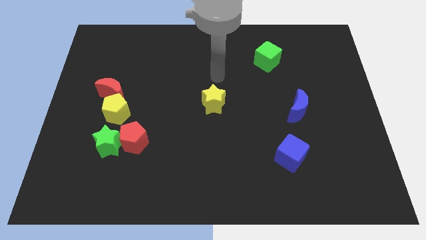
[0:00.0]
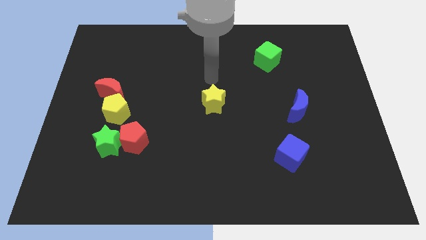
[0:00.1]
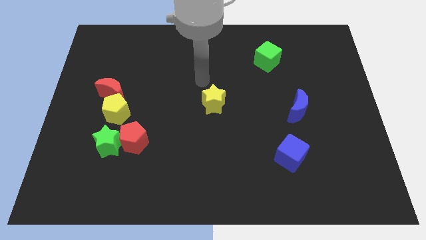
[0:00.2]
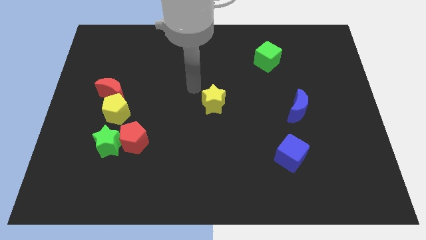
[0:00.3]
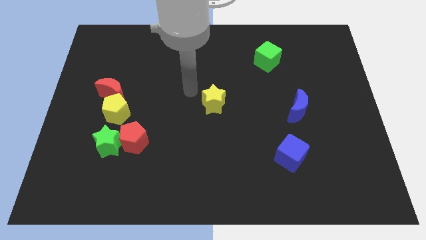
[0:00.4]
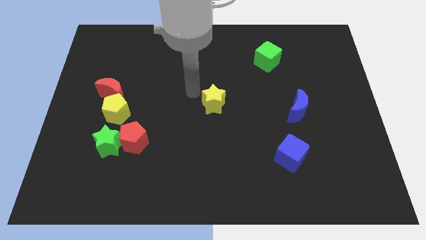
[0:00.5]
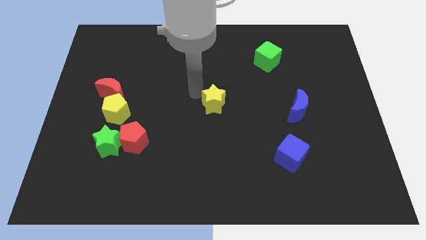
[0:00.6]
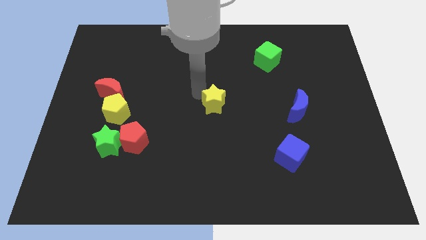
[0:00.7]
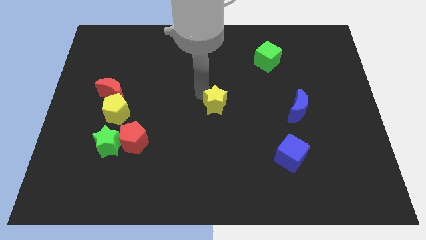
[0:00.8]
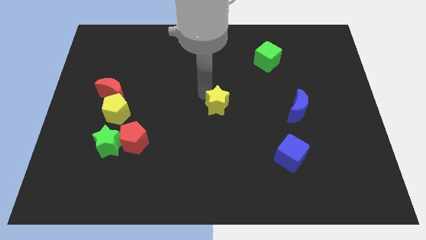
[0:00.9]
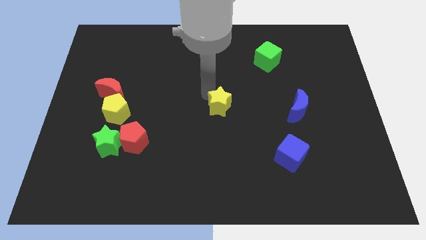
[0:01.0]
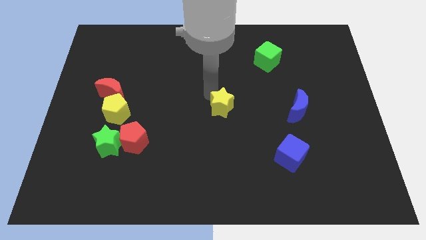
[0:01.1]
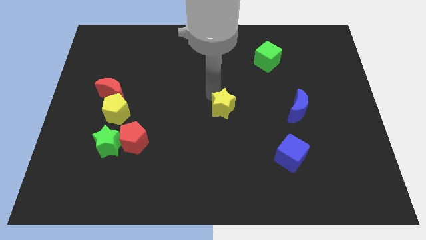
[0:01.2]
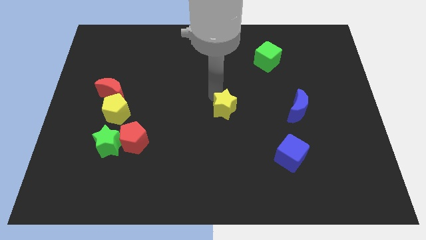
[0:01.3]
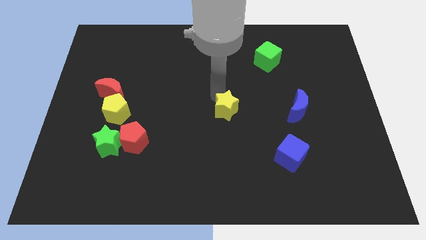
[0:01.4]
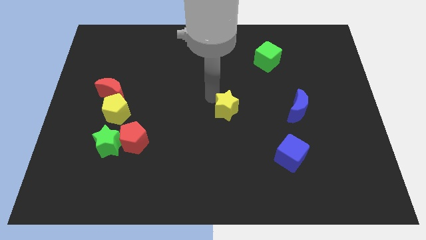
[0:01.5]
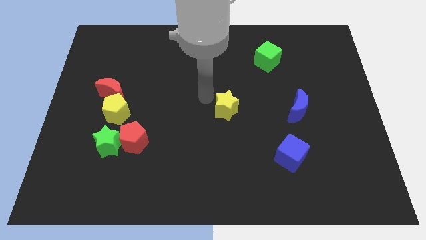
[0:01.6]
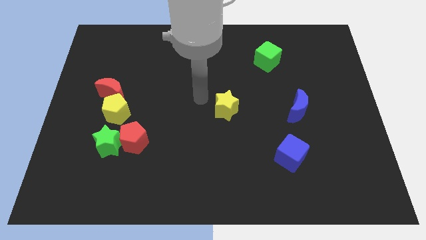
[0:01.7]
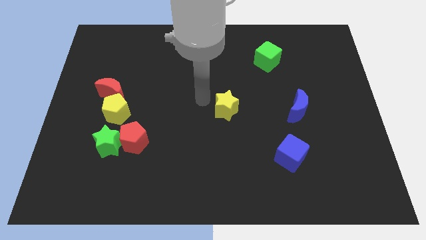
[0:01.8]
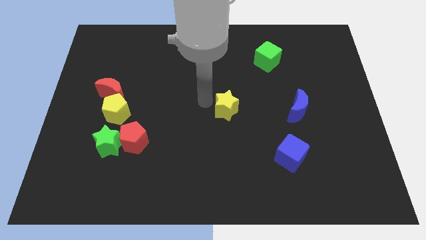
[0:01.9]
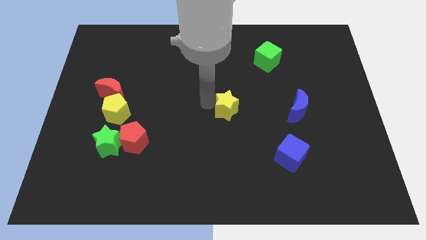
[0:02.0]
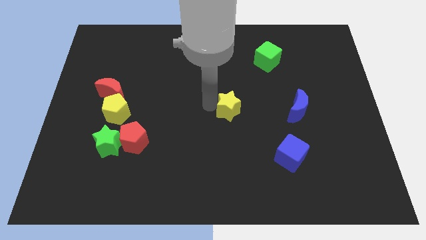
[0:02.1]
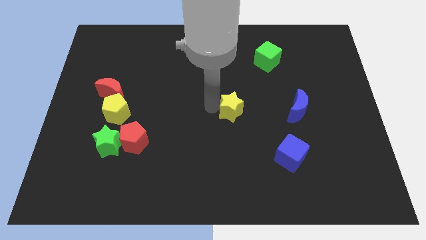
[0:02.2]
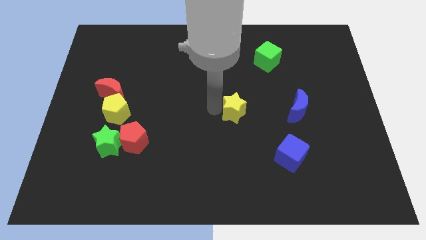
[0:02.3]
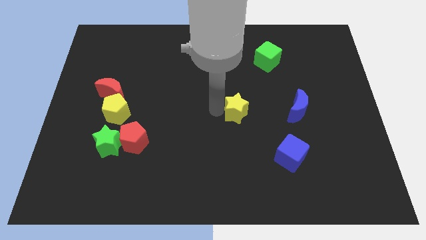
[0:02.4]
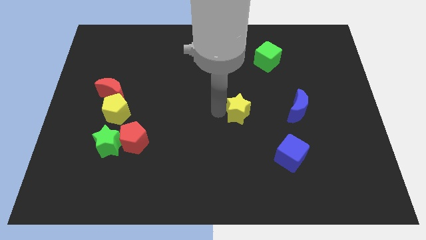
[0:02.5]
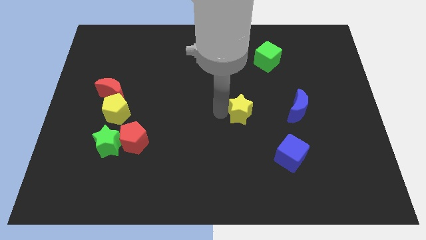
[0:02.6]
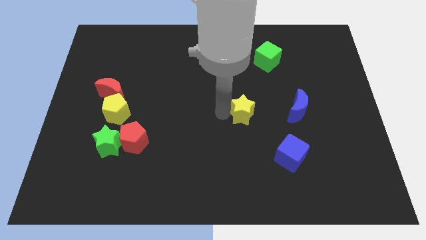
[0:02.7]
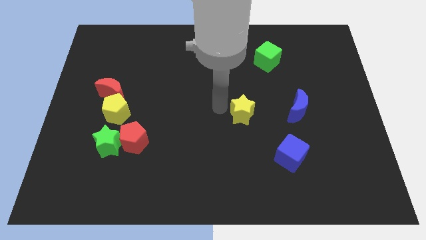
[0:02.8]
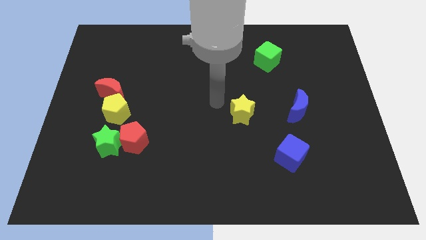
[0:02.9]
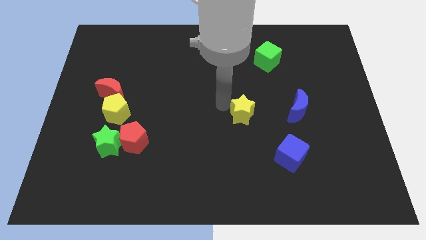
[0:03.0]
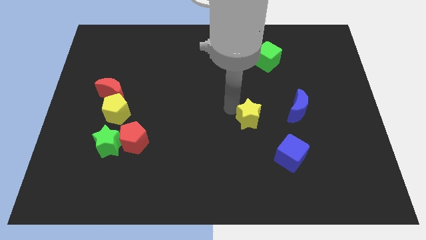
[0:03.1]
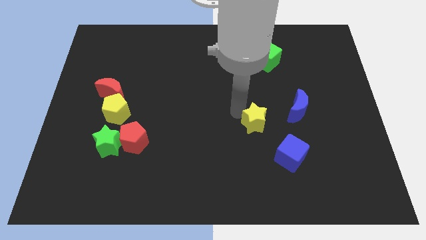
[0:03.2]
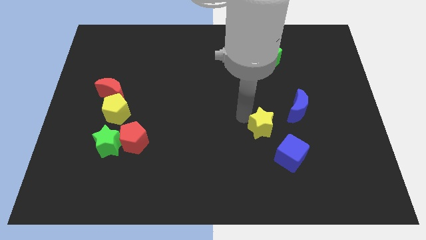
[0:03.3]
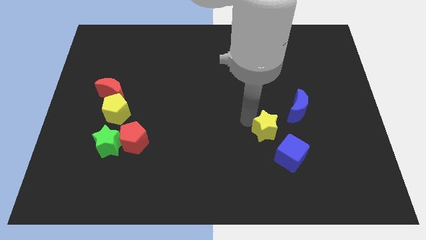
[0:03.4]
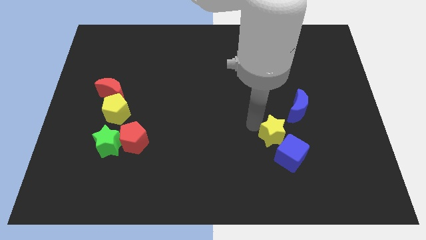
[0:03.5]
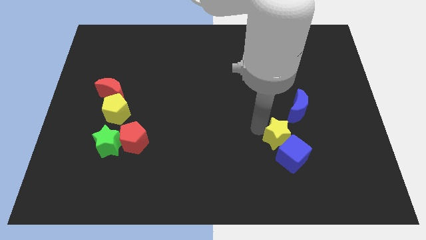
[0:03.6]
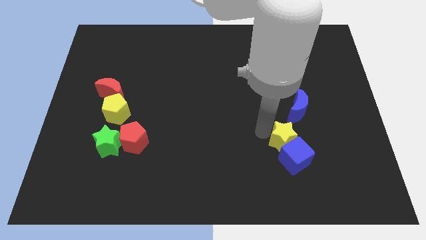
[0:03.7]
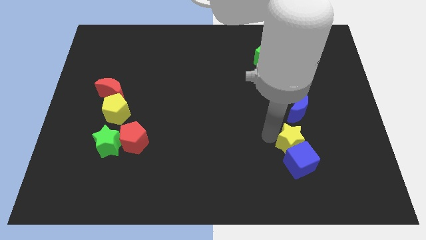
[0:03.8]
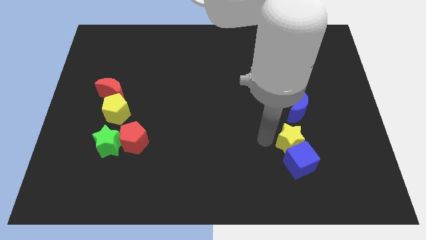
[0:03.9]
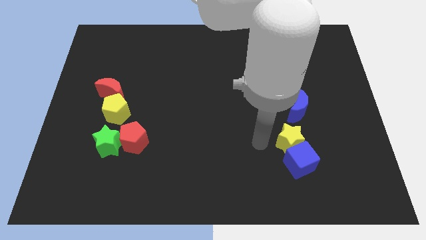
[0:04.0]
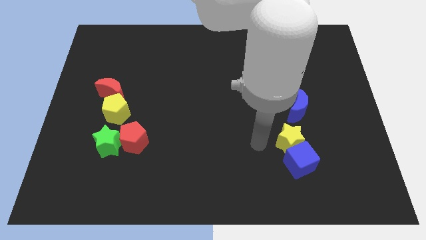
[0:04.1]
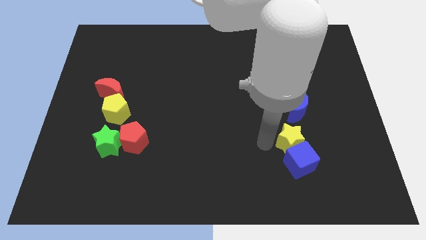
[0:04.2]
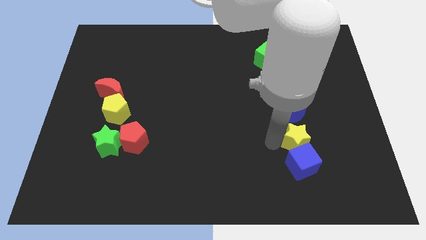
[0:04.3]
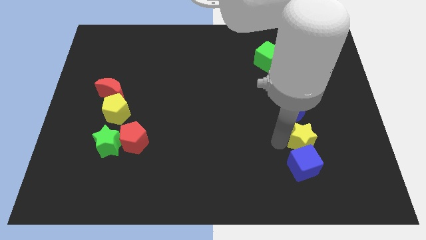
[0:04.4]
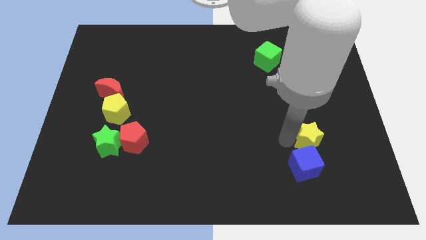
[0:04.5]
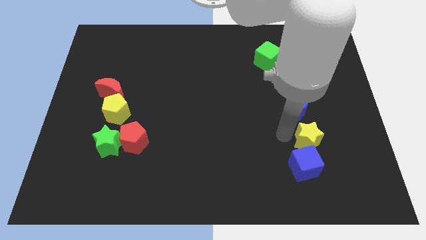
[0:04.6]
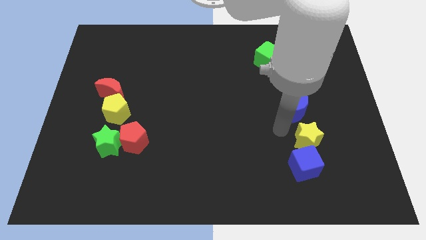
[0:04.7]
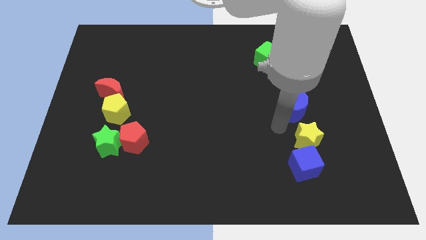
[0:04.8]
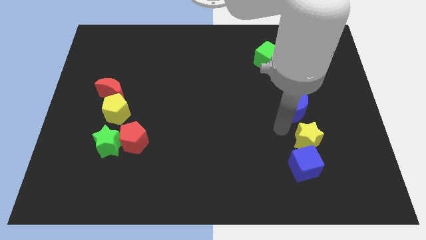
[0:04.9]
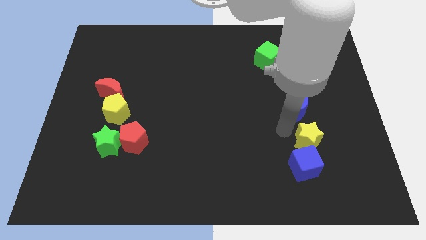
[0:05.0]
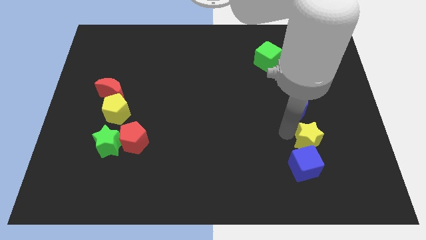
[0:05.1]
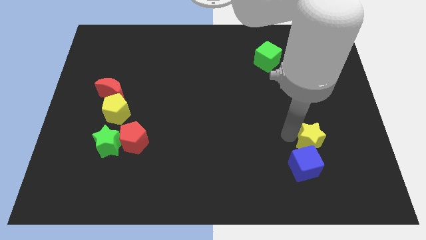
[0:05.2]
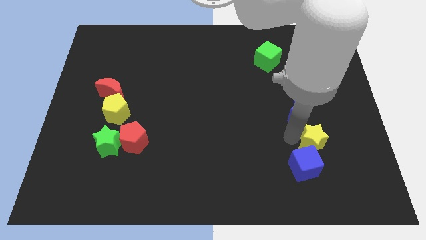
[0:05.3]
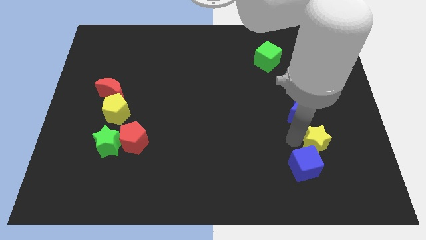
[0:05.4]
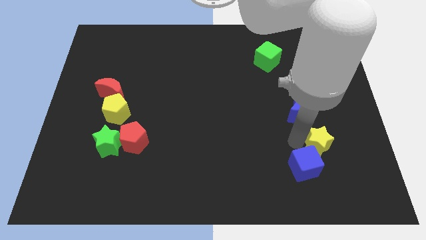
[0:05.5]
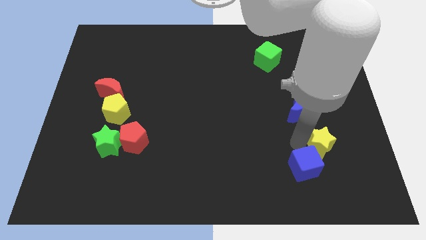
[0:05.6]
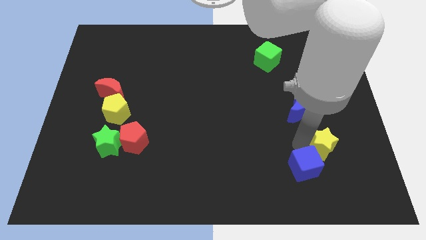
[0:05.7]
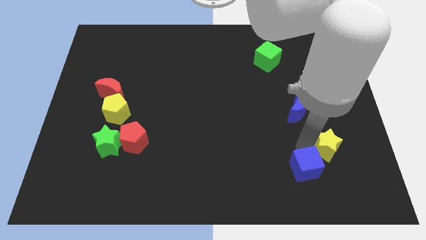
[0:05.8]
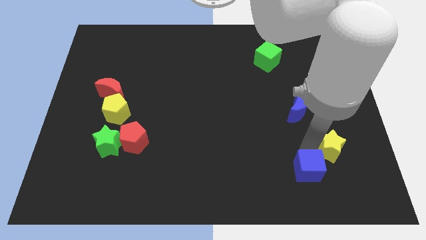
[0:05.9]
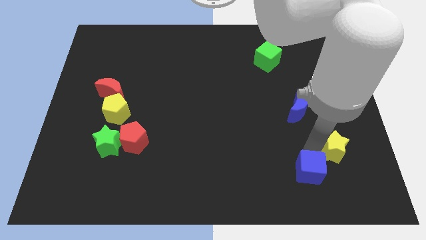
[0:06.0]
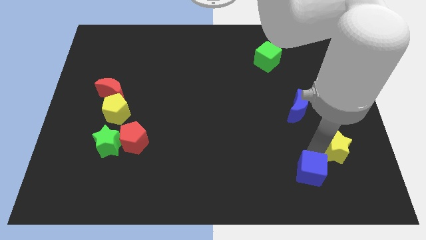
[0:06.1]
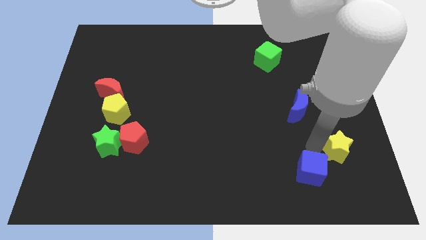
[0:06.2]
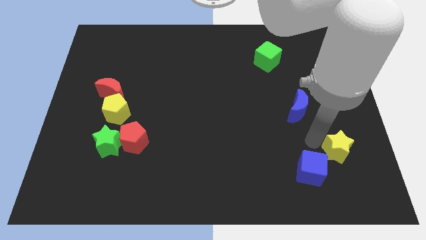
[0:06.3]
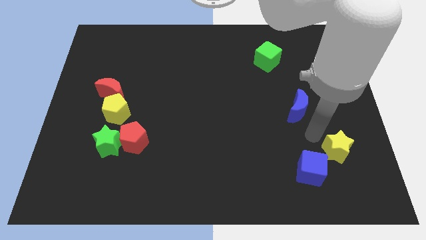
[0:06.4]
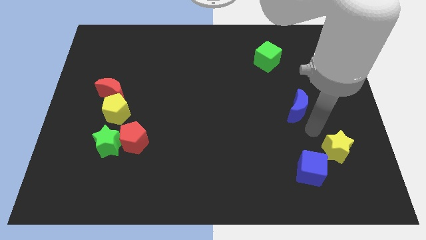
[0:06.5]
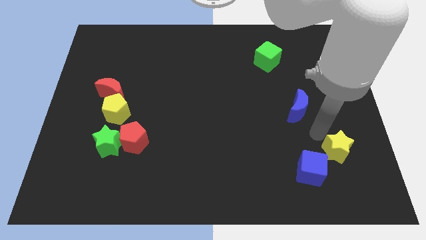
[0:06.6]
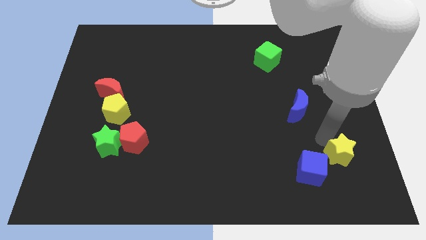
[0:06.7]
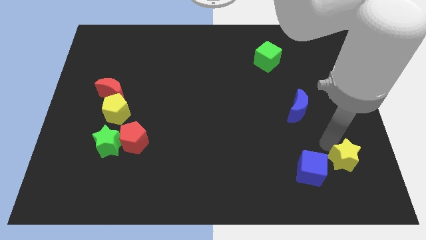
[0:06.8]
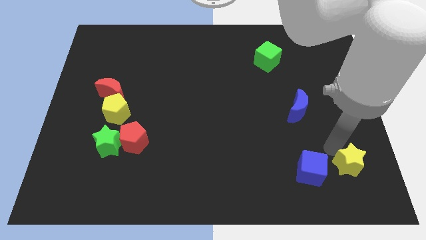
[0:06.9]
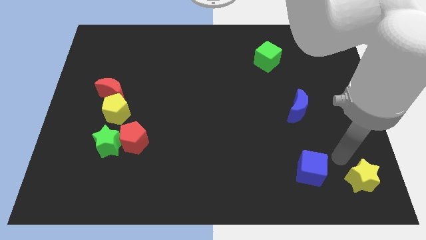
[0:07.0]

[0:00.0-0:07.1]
put the yellow star to the bottom right of the board
